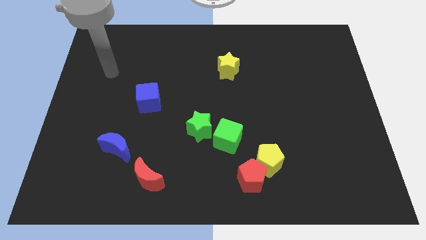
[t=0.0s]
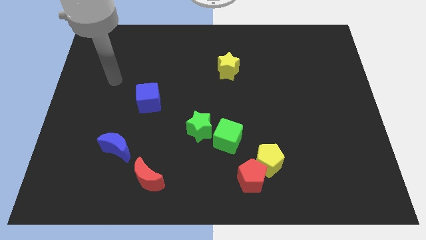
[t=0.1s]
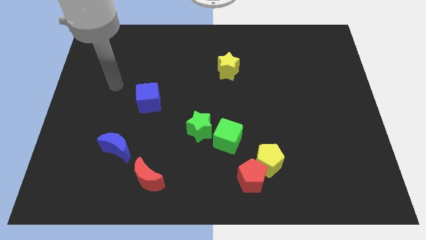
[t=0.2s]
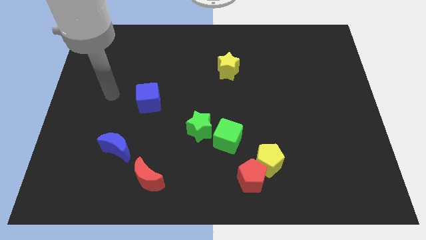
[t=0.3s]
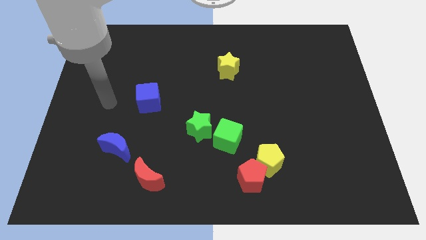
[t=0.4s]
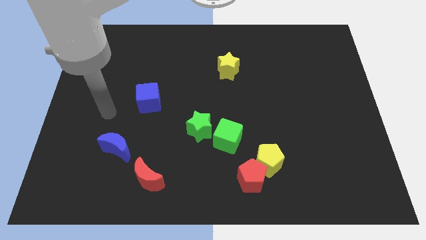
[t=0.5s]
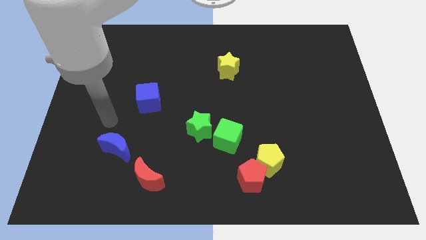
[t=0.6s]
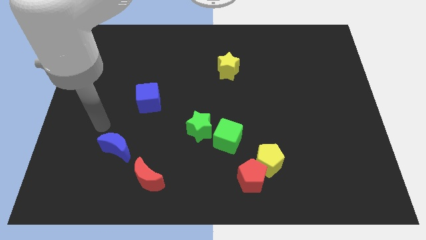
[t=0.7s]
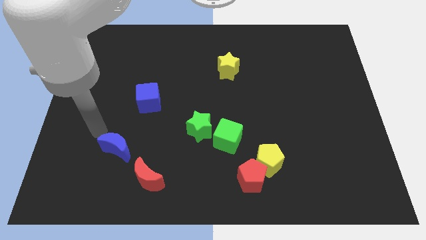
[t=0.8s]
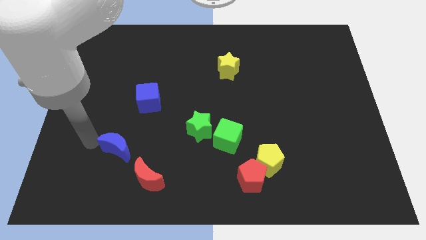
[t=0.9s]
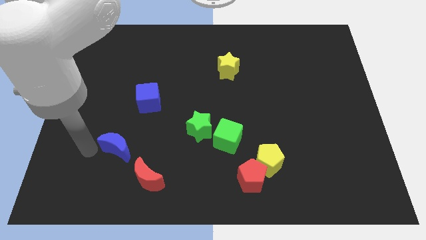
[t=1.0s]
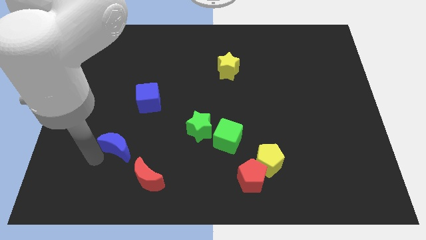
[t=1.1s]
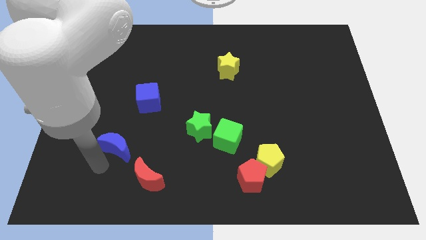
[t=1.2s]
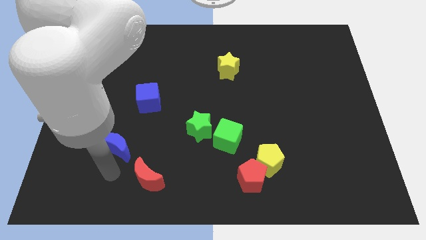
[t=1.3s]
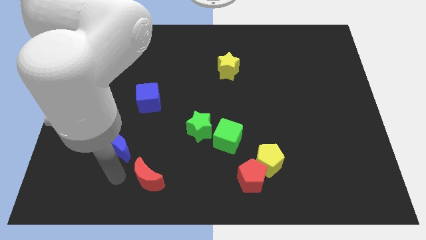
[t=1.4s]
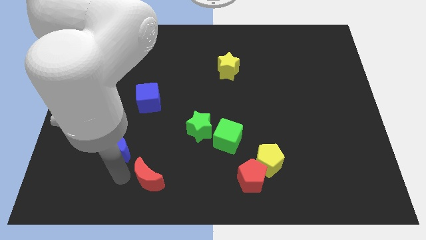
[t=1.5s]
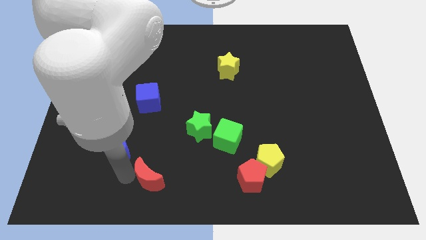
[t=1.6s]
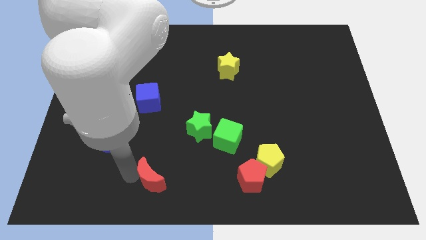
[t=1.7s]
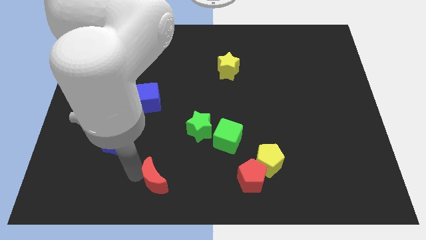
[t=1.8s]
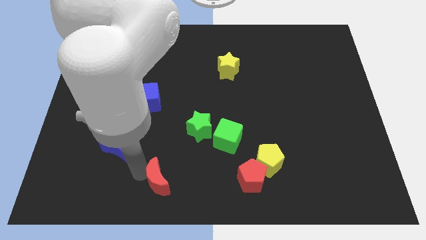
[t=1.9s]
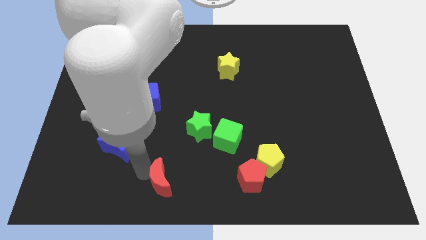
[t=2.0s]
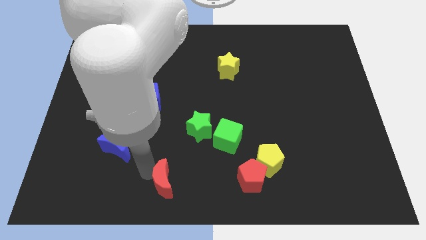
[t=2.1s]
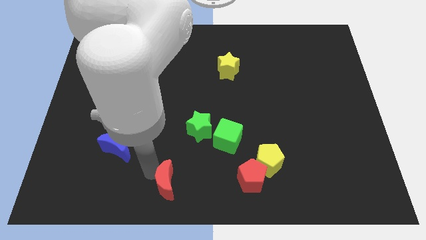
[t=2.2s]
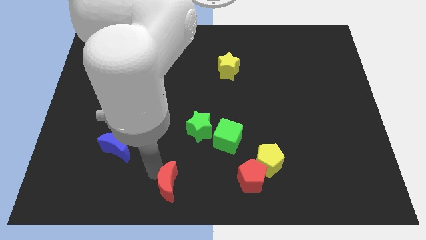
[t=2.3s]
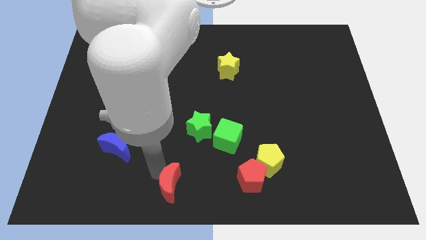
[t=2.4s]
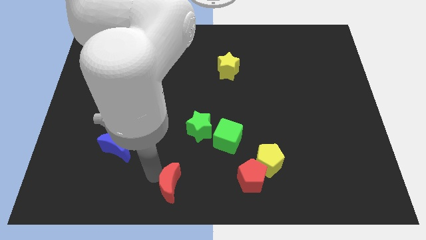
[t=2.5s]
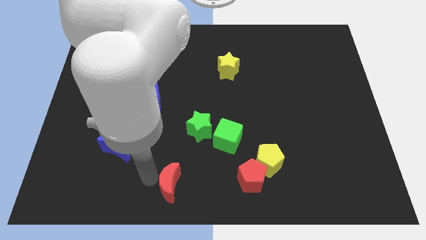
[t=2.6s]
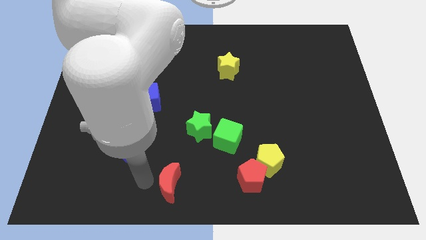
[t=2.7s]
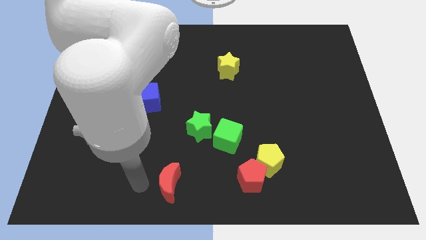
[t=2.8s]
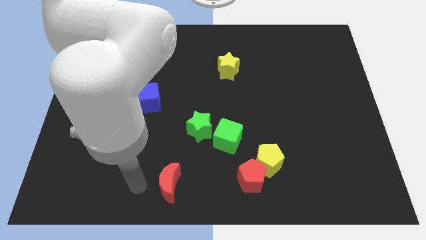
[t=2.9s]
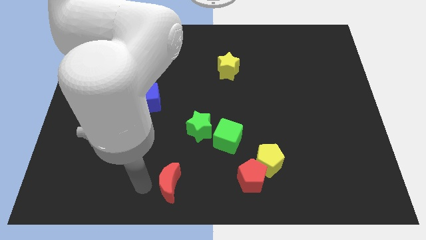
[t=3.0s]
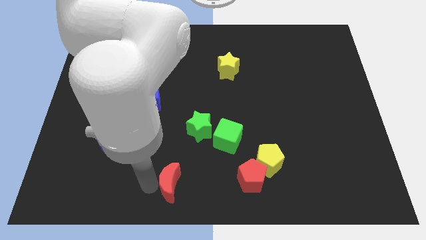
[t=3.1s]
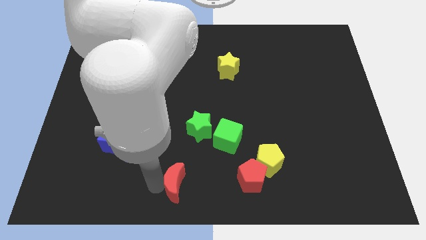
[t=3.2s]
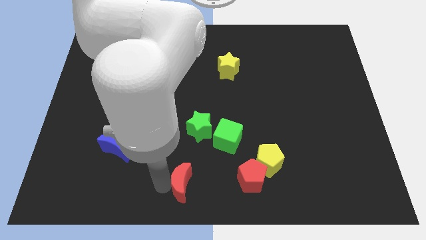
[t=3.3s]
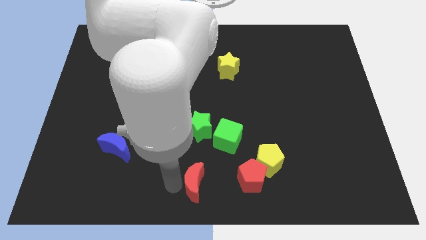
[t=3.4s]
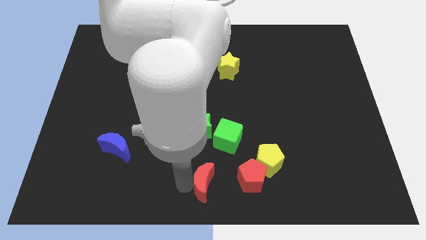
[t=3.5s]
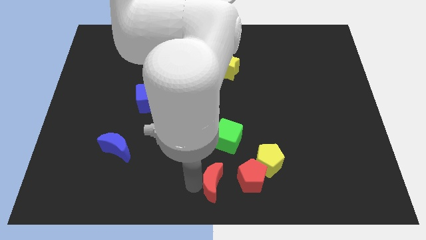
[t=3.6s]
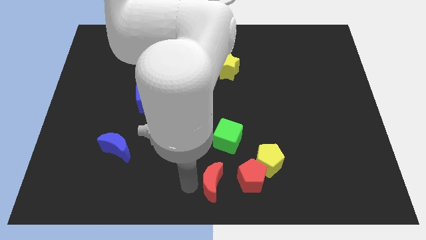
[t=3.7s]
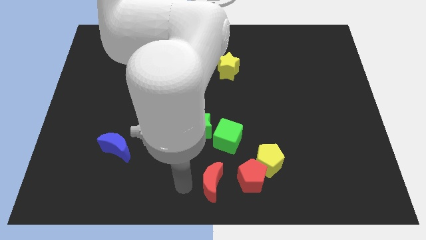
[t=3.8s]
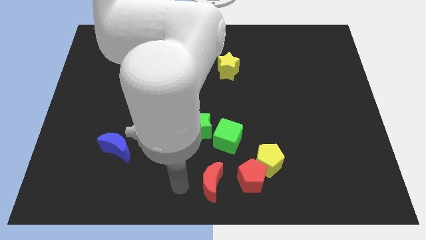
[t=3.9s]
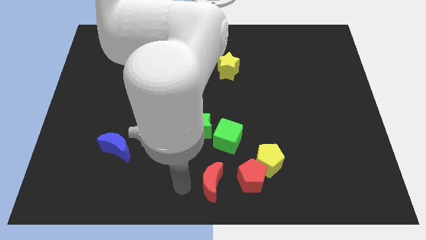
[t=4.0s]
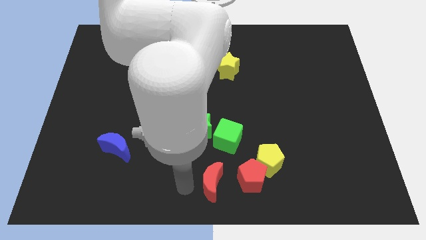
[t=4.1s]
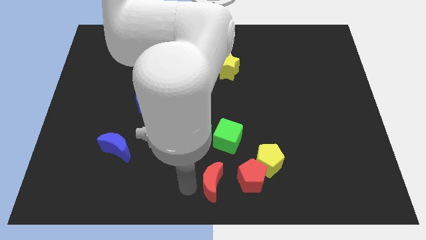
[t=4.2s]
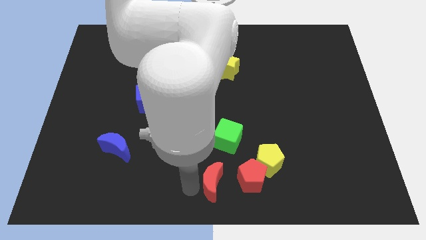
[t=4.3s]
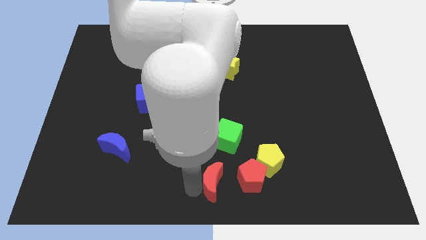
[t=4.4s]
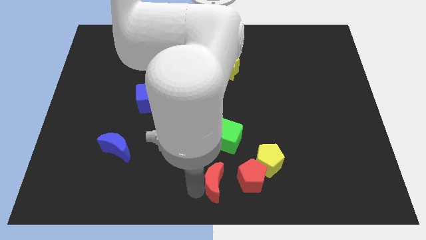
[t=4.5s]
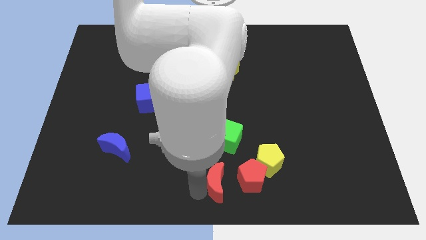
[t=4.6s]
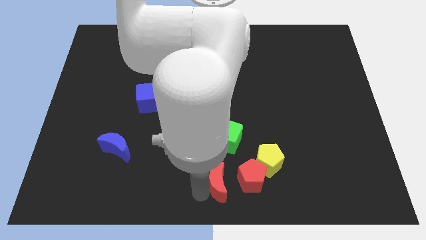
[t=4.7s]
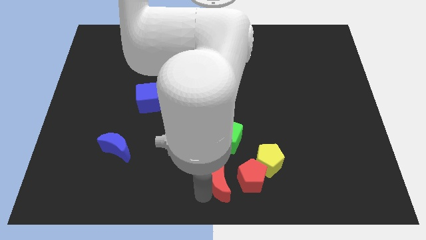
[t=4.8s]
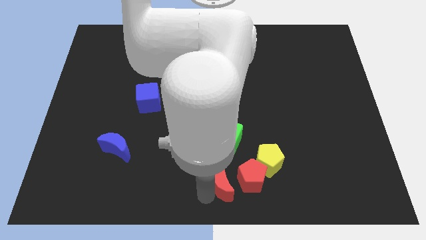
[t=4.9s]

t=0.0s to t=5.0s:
slide the red moon next to the red pentagon

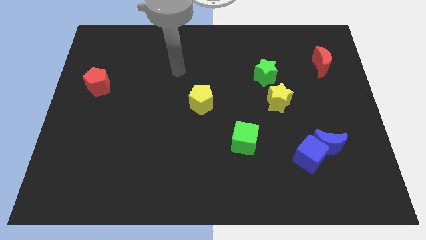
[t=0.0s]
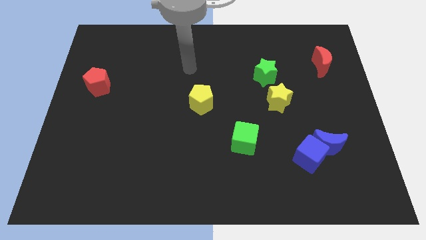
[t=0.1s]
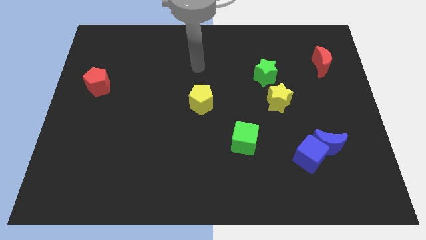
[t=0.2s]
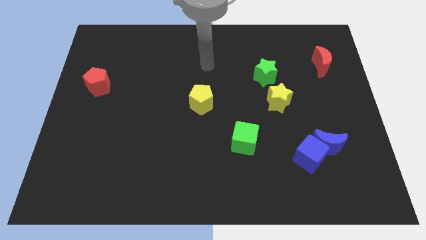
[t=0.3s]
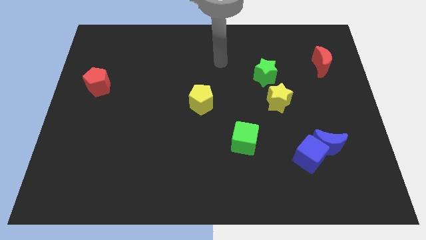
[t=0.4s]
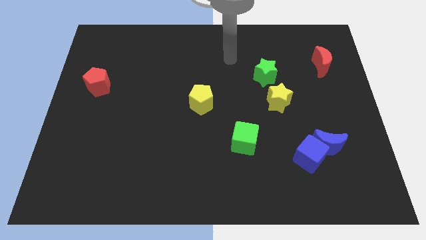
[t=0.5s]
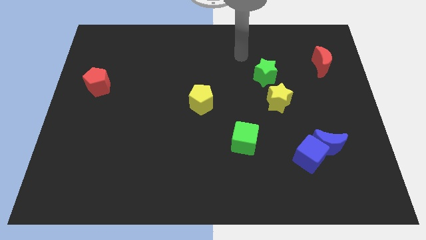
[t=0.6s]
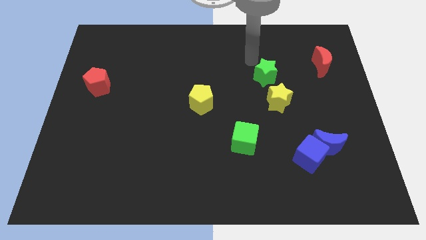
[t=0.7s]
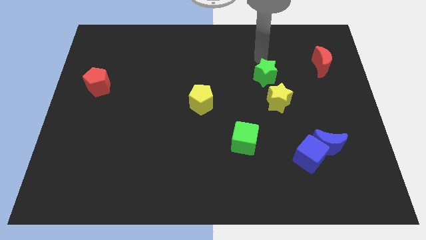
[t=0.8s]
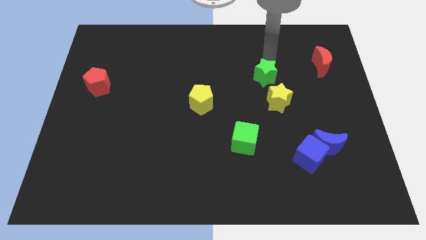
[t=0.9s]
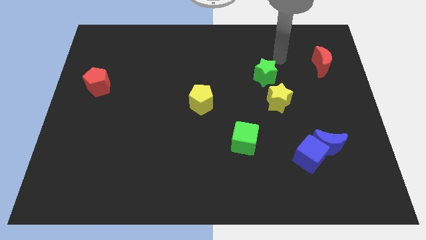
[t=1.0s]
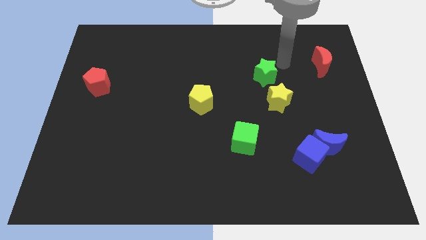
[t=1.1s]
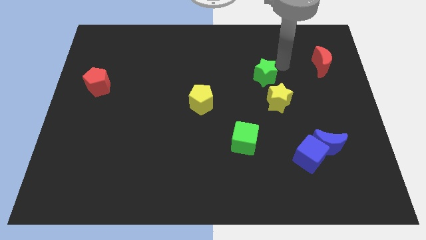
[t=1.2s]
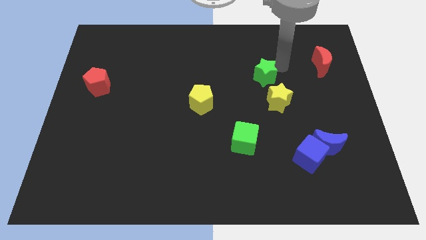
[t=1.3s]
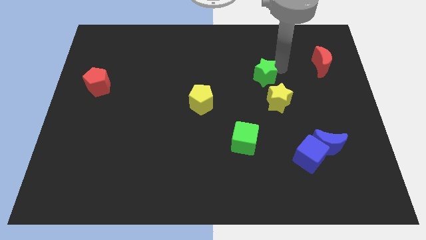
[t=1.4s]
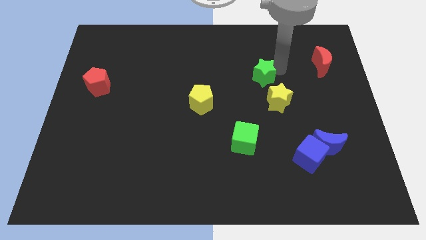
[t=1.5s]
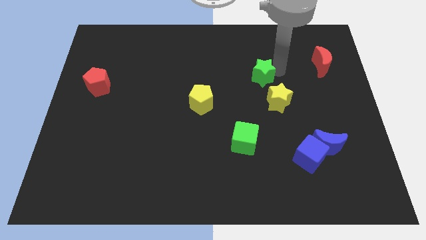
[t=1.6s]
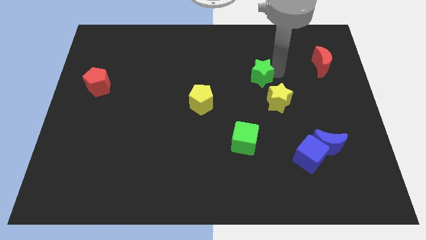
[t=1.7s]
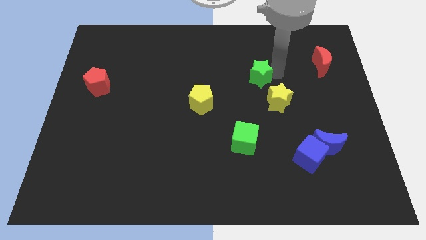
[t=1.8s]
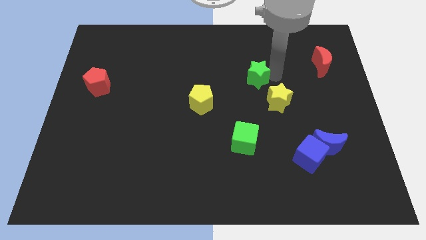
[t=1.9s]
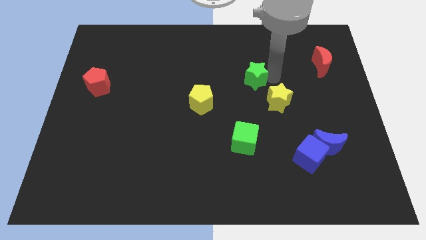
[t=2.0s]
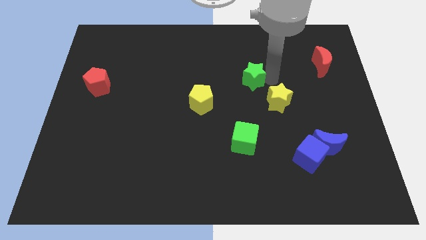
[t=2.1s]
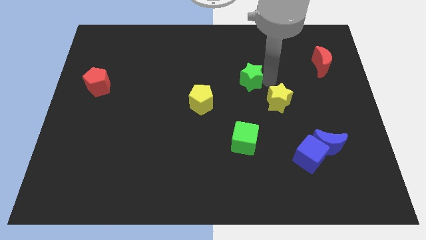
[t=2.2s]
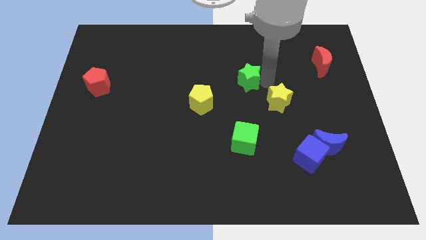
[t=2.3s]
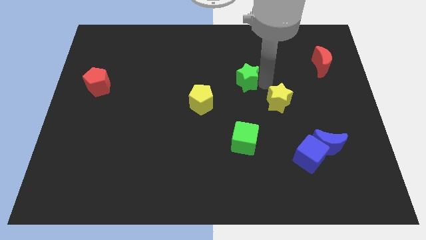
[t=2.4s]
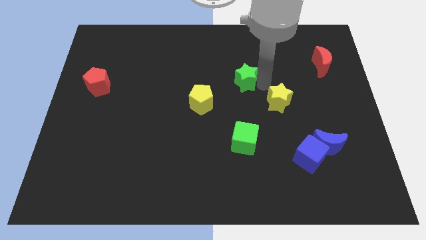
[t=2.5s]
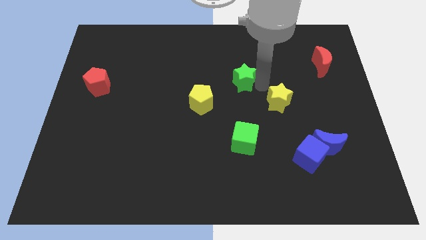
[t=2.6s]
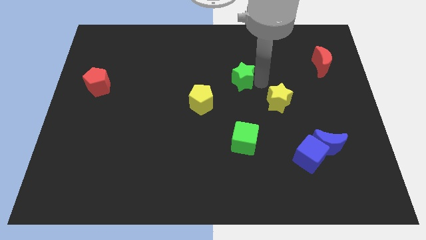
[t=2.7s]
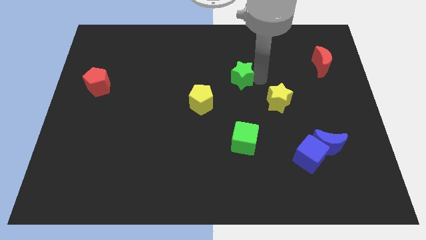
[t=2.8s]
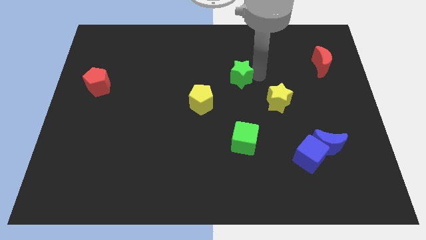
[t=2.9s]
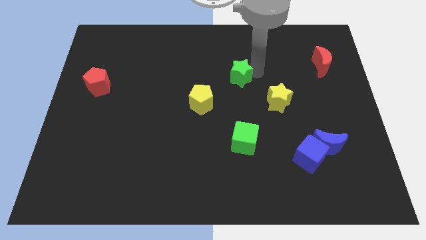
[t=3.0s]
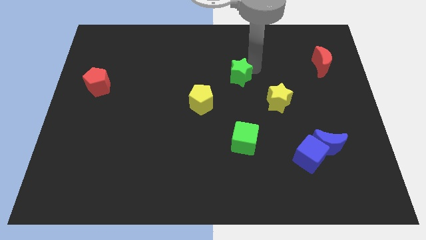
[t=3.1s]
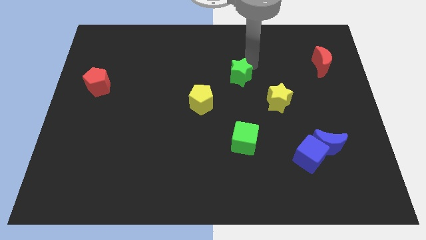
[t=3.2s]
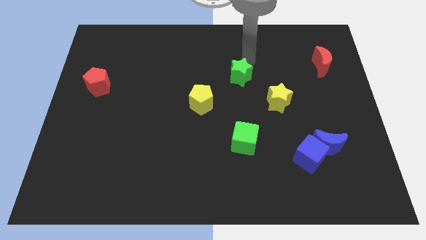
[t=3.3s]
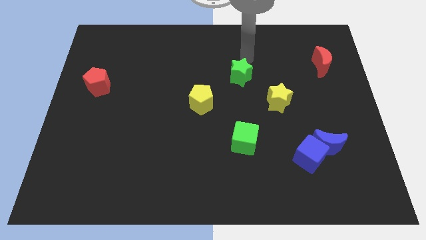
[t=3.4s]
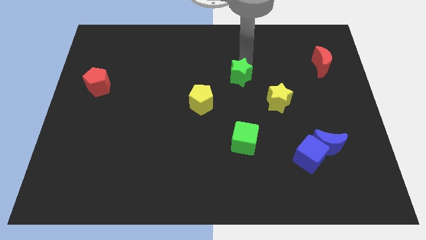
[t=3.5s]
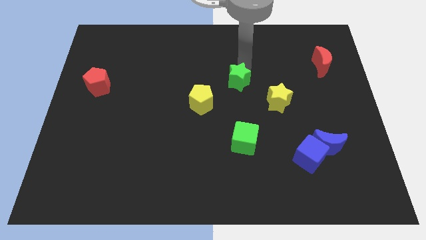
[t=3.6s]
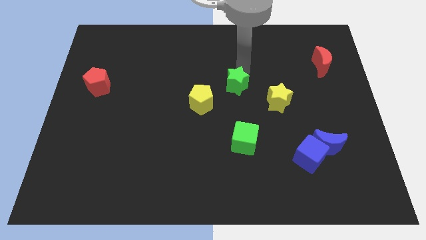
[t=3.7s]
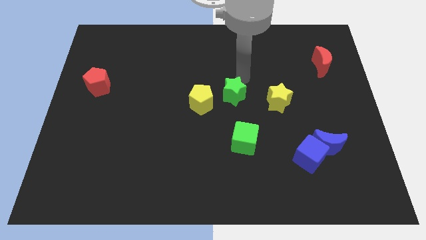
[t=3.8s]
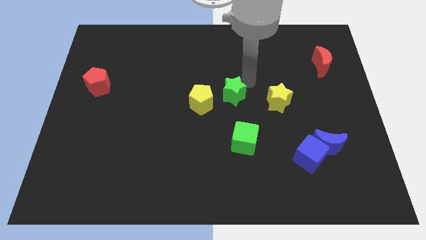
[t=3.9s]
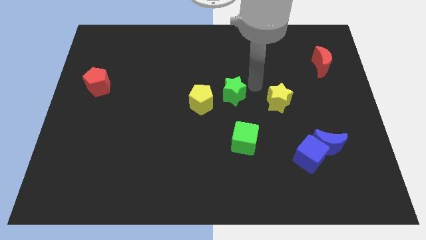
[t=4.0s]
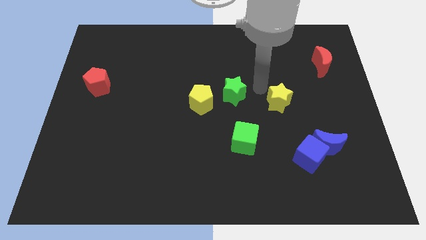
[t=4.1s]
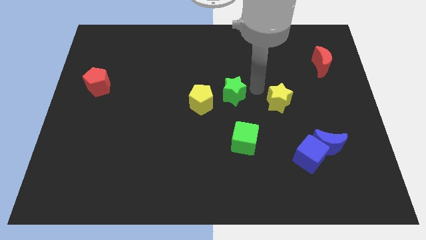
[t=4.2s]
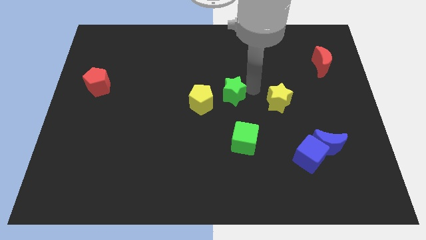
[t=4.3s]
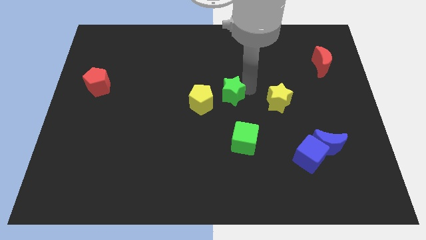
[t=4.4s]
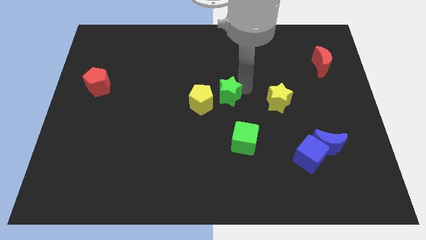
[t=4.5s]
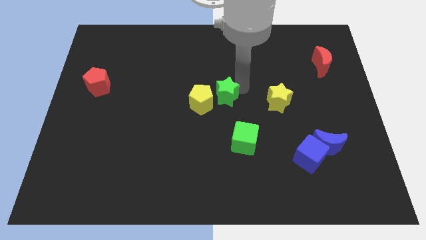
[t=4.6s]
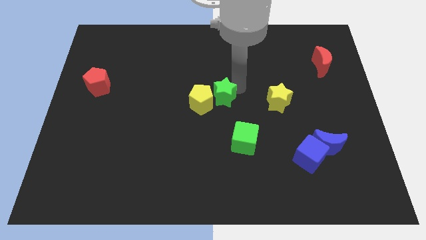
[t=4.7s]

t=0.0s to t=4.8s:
put the green star next to the yellow pentagon
